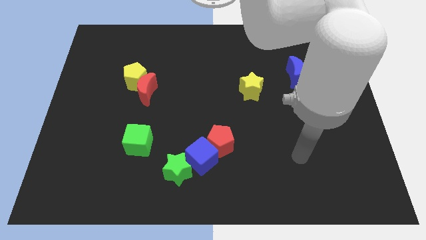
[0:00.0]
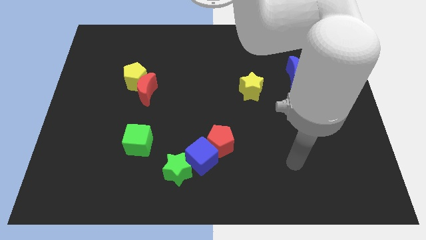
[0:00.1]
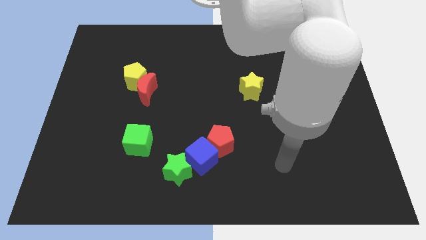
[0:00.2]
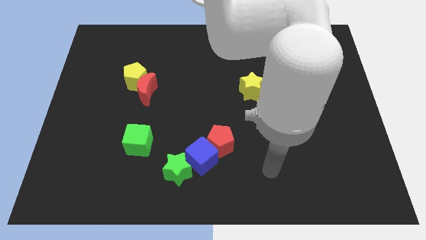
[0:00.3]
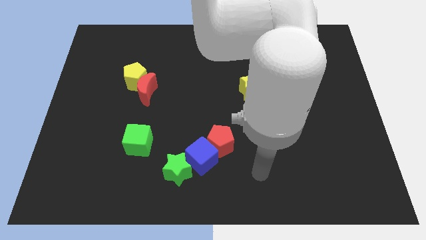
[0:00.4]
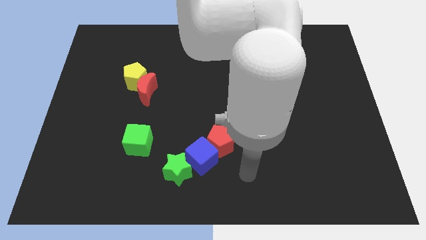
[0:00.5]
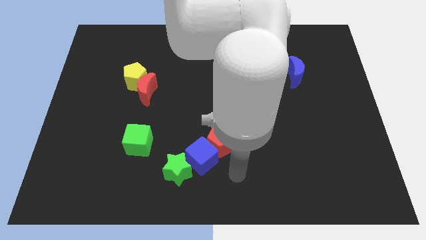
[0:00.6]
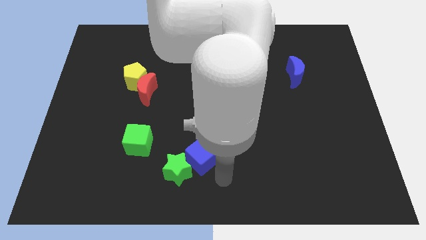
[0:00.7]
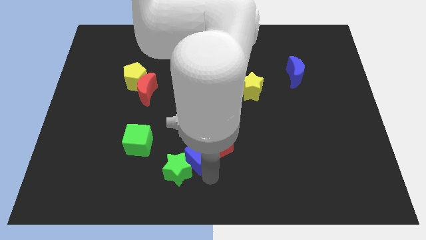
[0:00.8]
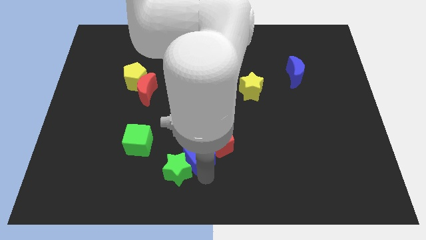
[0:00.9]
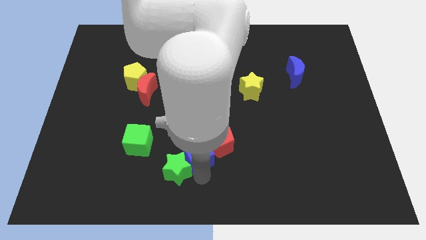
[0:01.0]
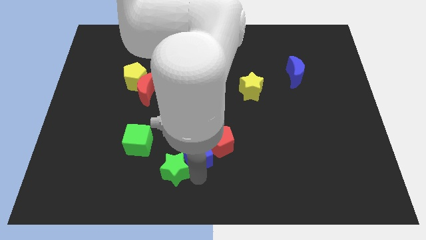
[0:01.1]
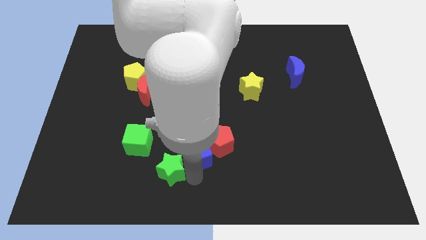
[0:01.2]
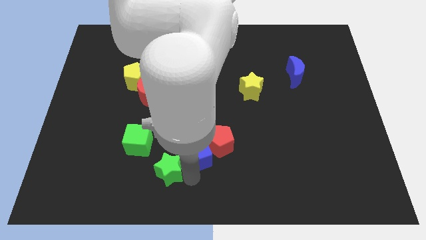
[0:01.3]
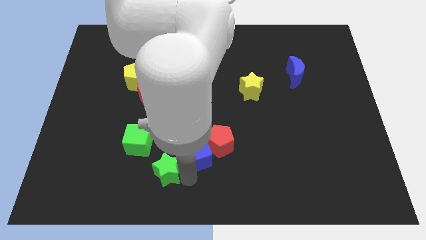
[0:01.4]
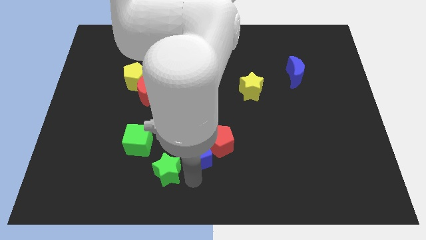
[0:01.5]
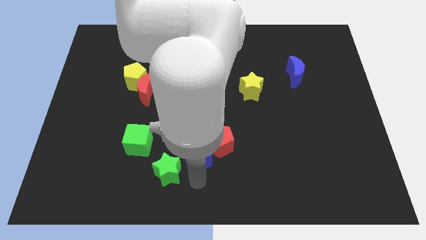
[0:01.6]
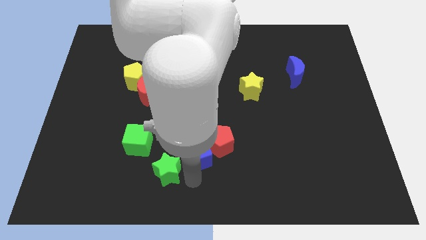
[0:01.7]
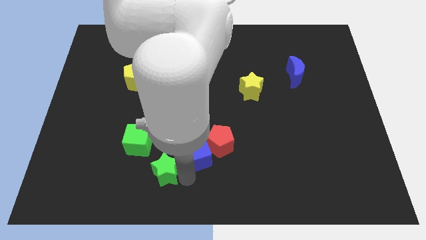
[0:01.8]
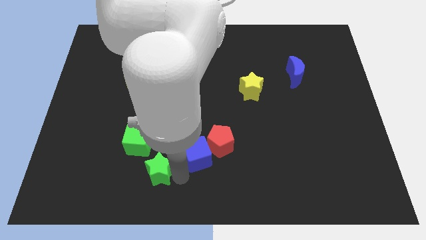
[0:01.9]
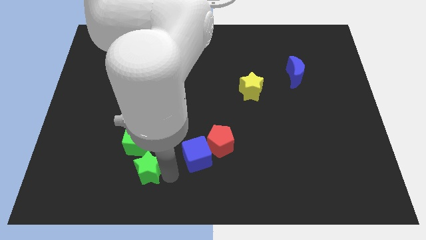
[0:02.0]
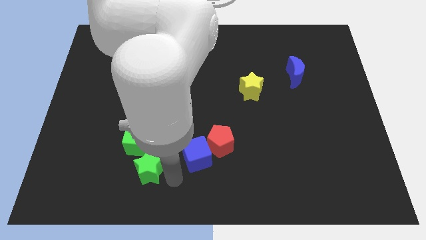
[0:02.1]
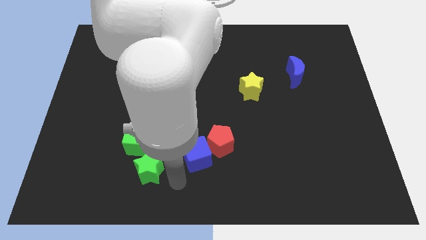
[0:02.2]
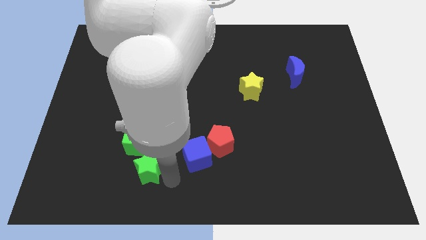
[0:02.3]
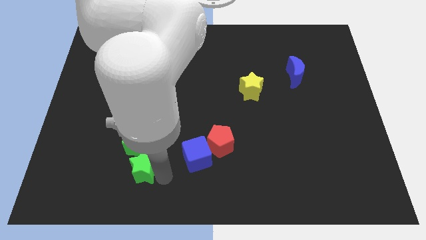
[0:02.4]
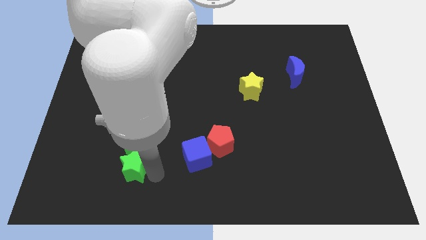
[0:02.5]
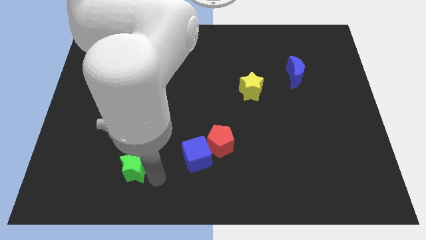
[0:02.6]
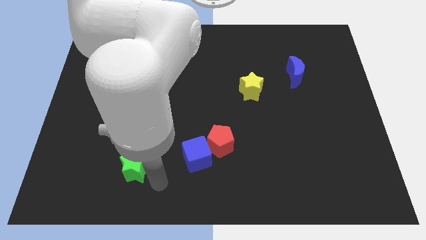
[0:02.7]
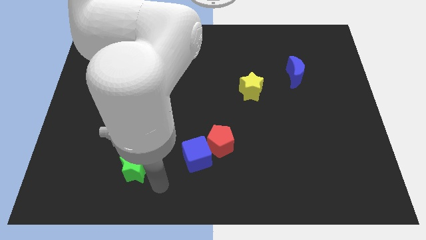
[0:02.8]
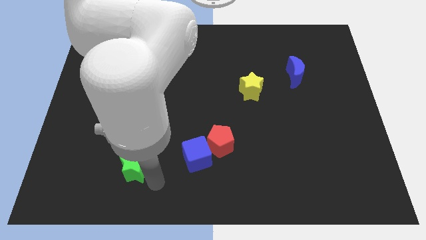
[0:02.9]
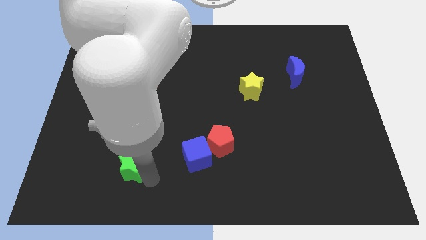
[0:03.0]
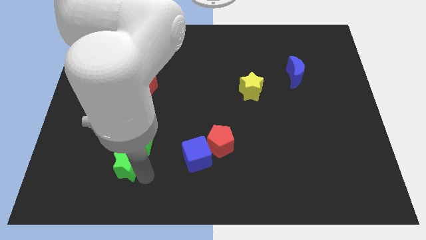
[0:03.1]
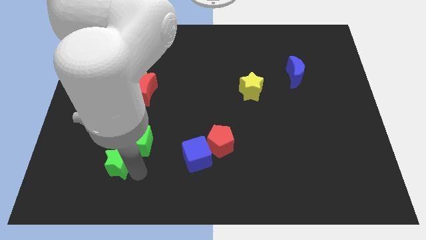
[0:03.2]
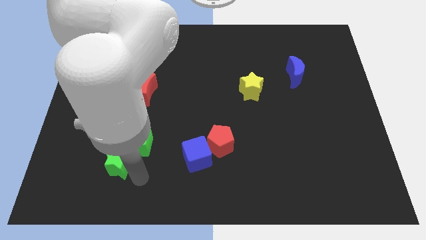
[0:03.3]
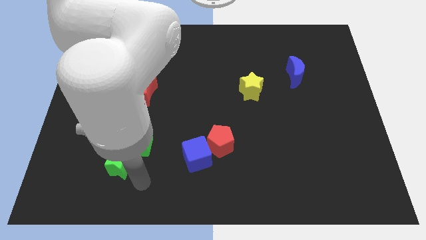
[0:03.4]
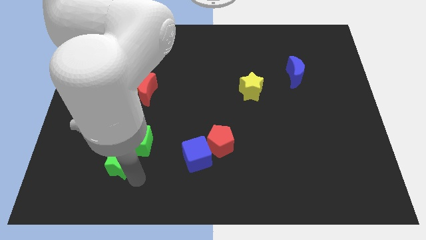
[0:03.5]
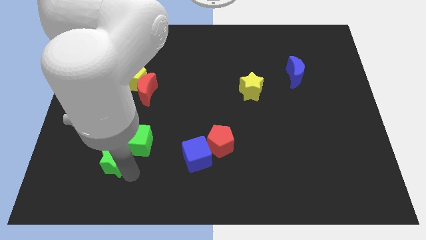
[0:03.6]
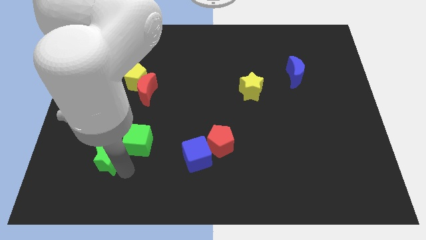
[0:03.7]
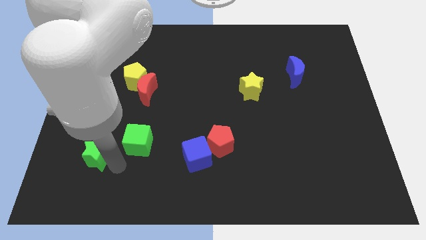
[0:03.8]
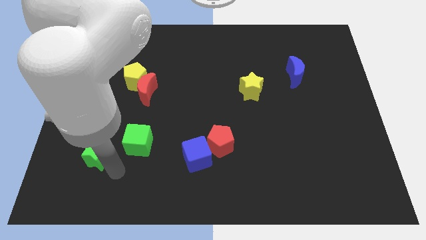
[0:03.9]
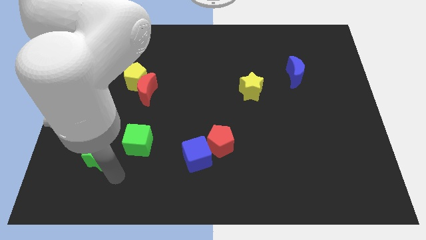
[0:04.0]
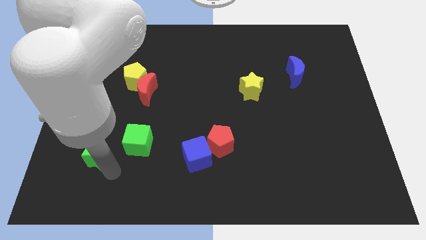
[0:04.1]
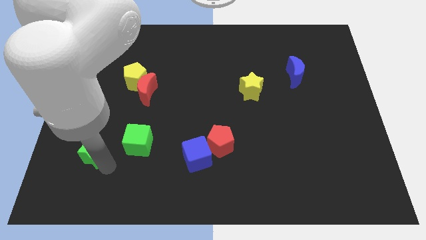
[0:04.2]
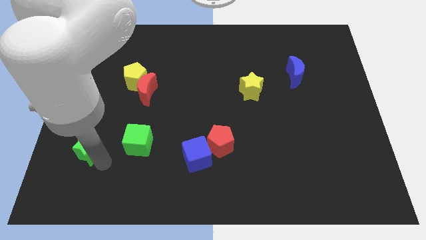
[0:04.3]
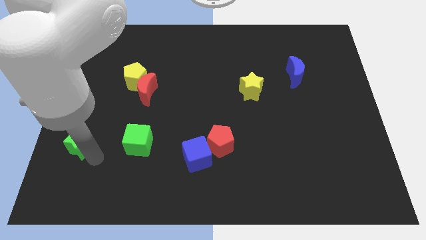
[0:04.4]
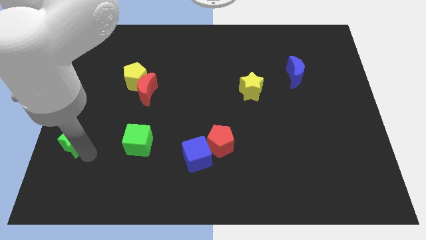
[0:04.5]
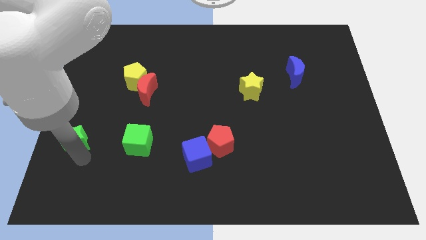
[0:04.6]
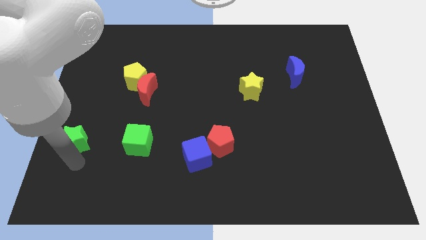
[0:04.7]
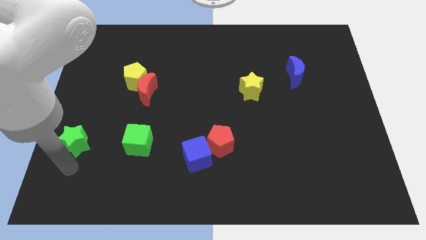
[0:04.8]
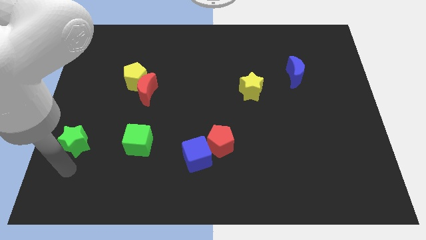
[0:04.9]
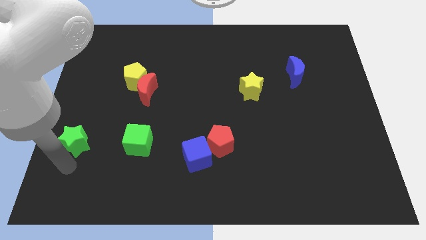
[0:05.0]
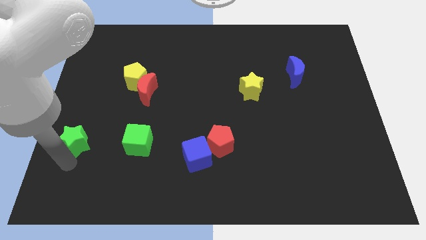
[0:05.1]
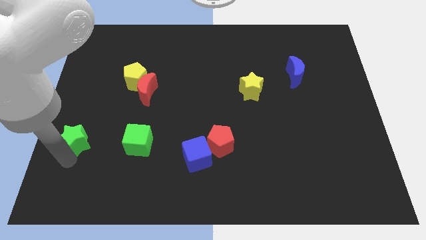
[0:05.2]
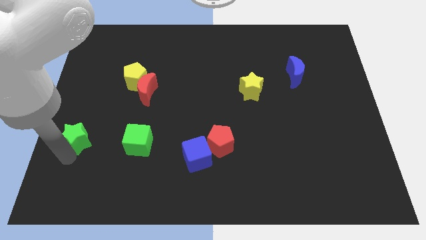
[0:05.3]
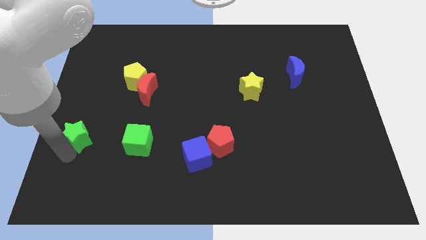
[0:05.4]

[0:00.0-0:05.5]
slide the green star to the left side of the board
